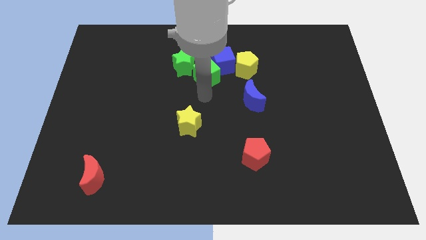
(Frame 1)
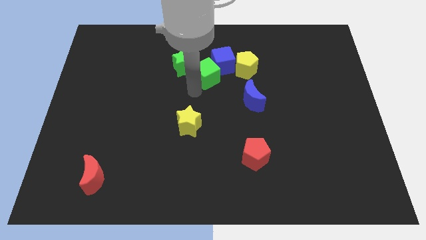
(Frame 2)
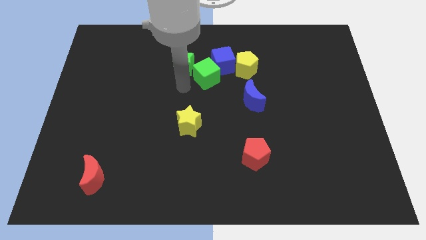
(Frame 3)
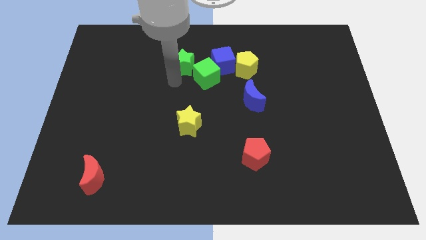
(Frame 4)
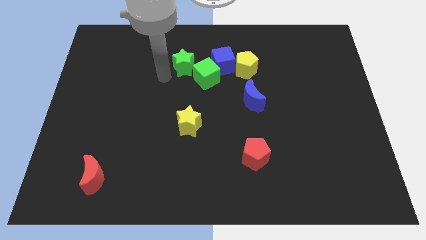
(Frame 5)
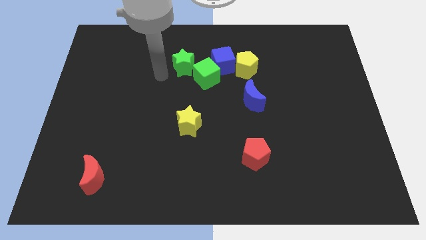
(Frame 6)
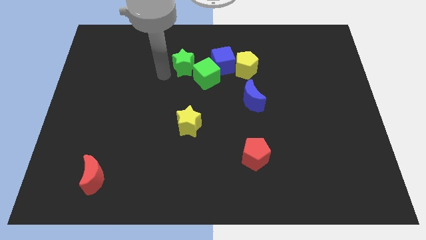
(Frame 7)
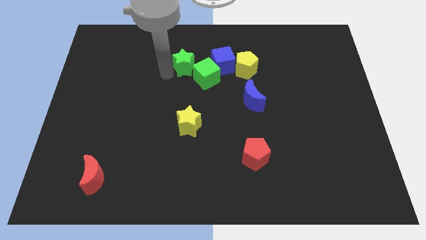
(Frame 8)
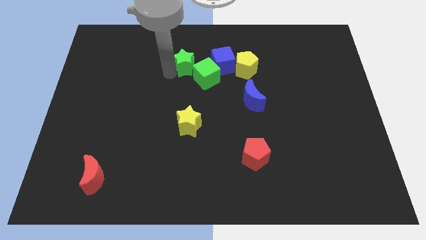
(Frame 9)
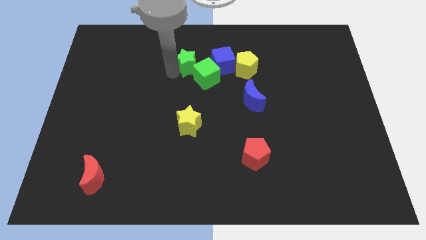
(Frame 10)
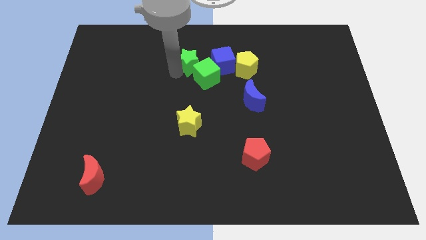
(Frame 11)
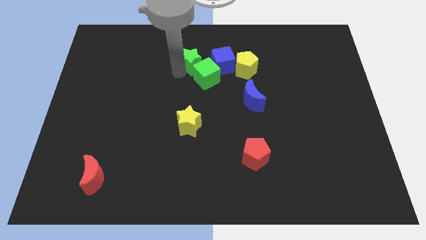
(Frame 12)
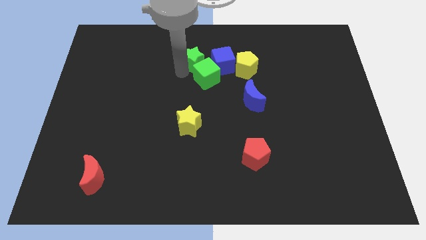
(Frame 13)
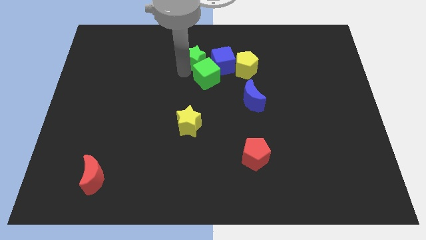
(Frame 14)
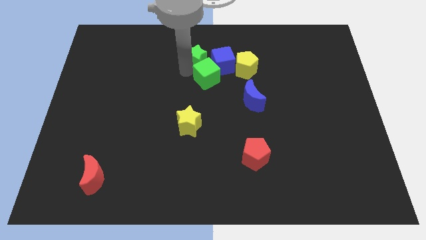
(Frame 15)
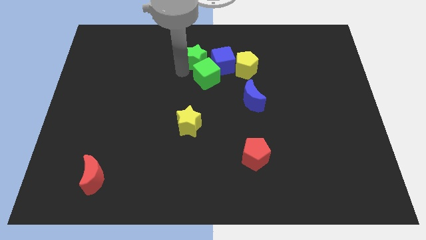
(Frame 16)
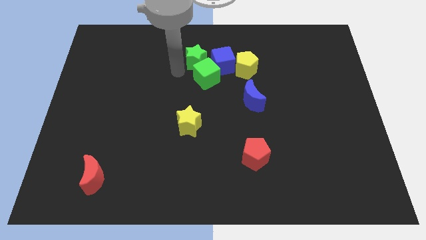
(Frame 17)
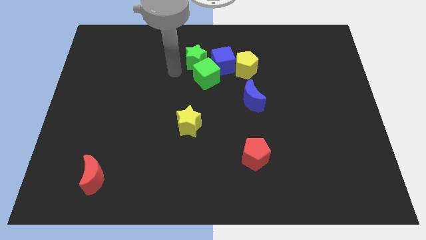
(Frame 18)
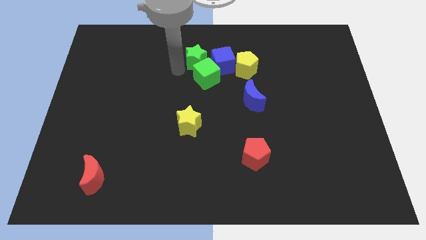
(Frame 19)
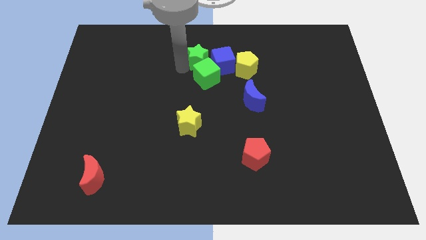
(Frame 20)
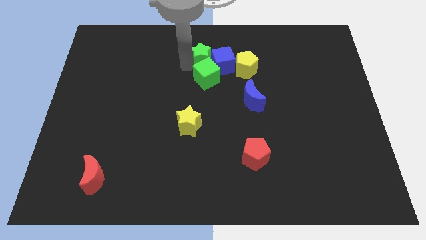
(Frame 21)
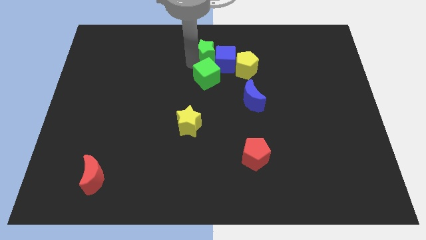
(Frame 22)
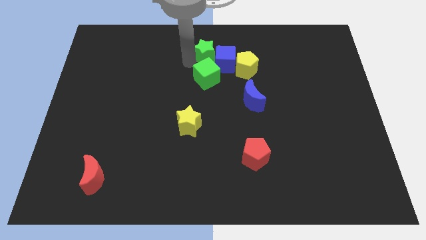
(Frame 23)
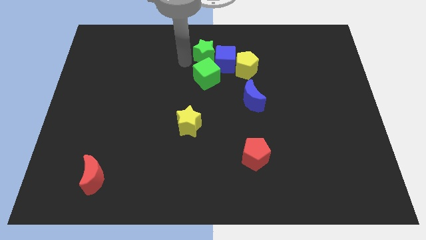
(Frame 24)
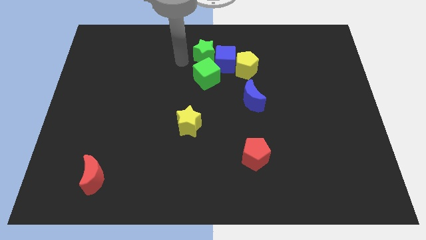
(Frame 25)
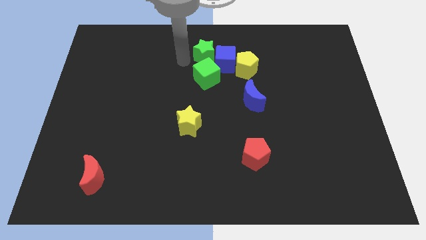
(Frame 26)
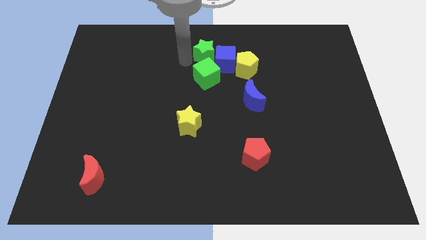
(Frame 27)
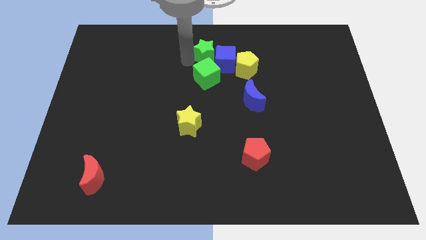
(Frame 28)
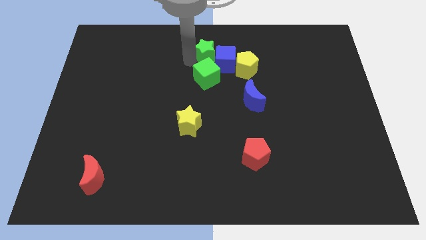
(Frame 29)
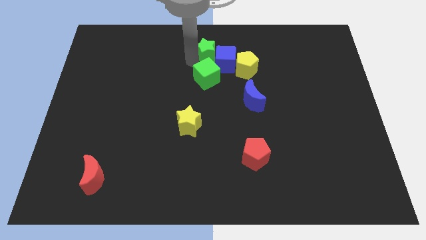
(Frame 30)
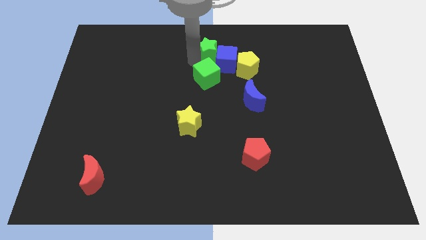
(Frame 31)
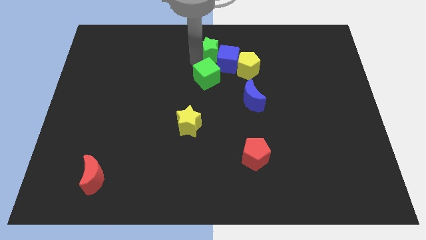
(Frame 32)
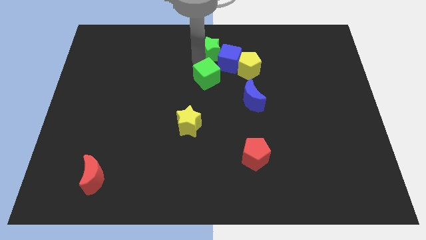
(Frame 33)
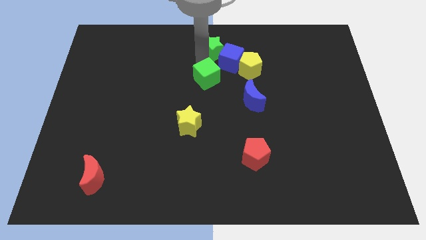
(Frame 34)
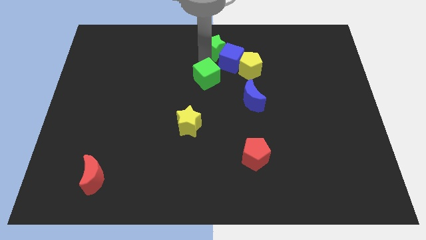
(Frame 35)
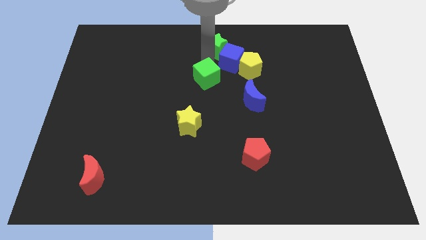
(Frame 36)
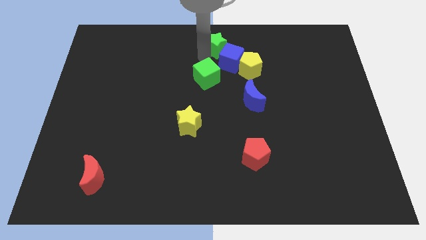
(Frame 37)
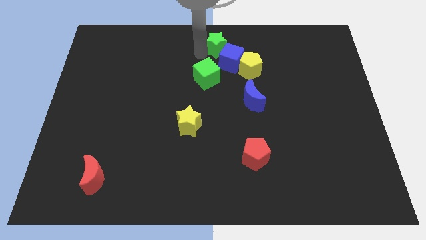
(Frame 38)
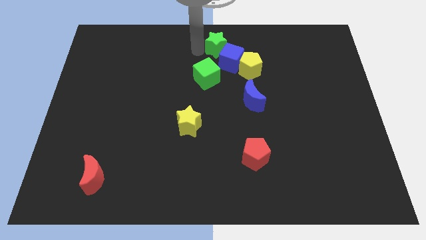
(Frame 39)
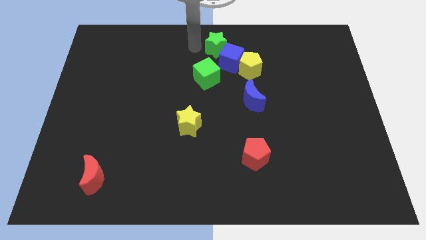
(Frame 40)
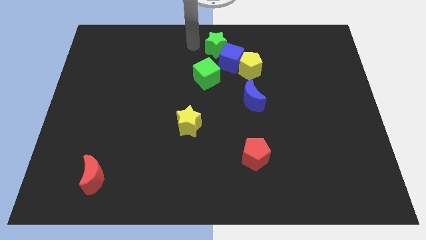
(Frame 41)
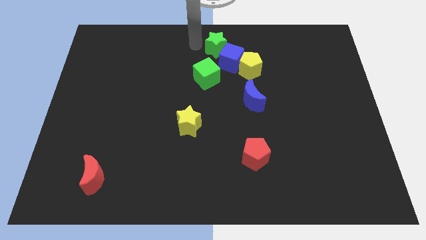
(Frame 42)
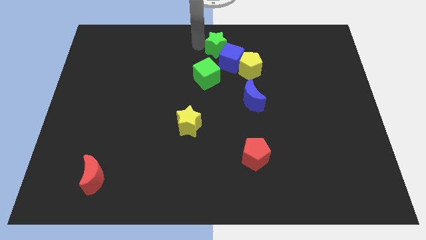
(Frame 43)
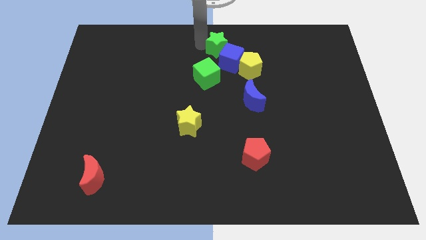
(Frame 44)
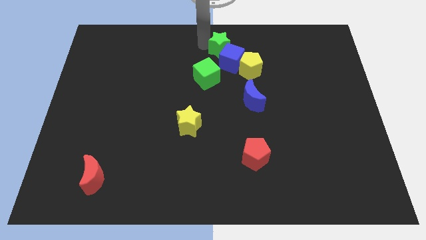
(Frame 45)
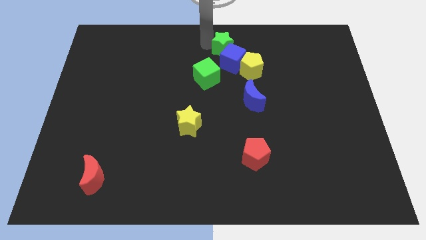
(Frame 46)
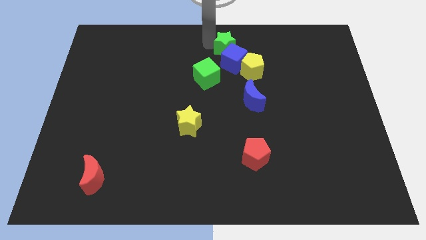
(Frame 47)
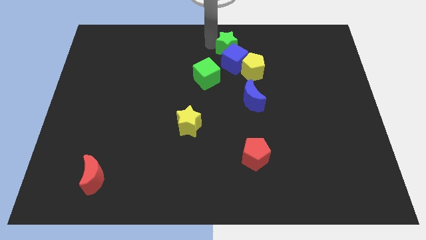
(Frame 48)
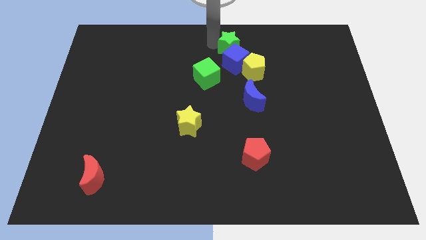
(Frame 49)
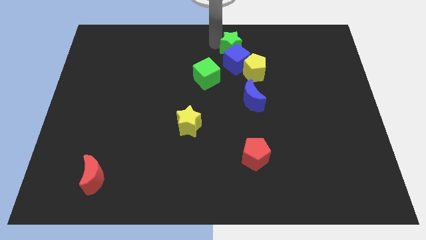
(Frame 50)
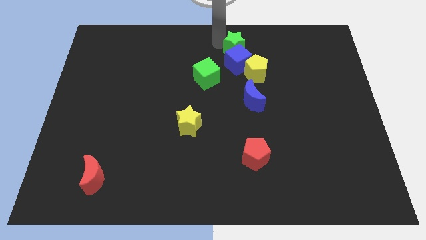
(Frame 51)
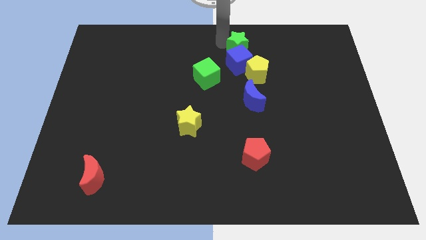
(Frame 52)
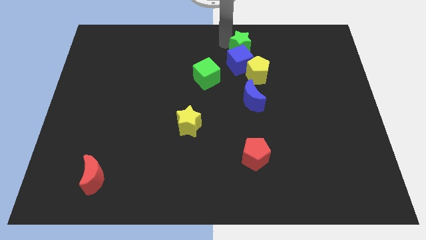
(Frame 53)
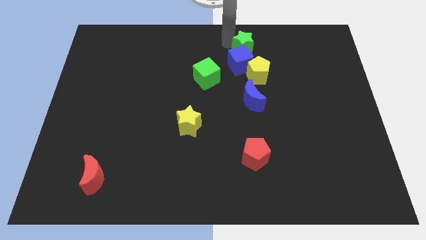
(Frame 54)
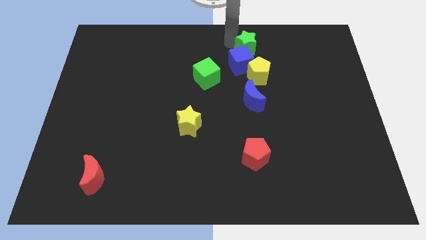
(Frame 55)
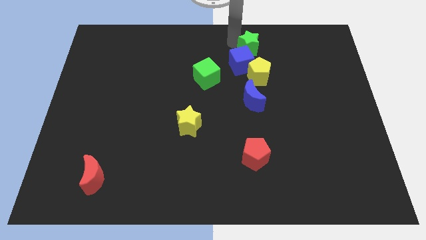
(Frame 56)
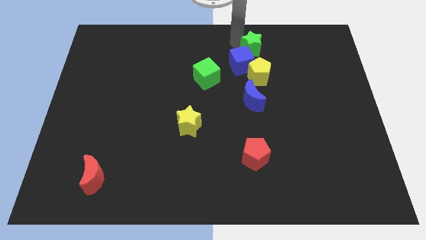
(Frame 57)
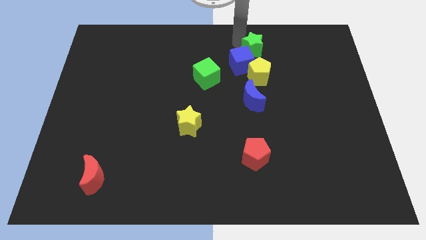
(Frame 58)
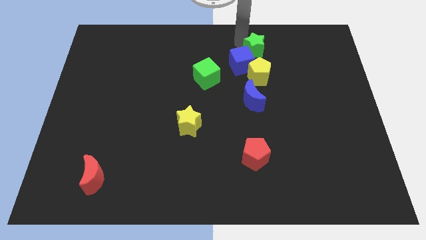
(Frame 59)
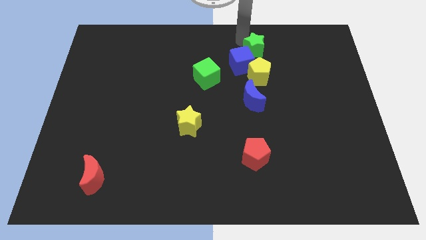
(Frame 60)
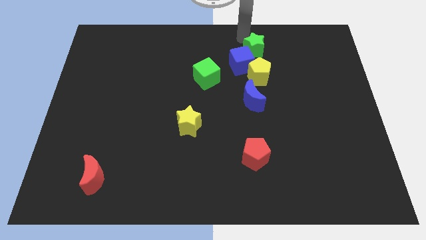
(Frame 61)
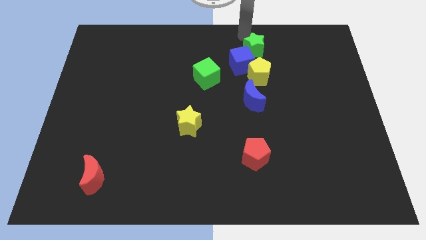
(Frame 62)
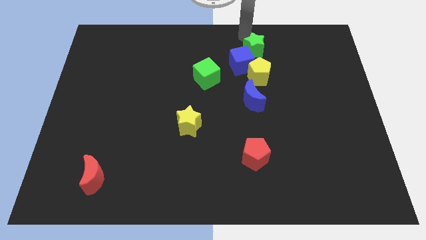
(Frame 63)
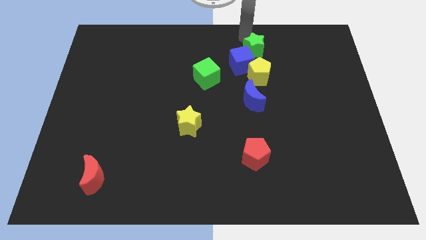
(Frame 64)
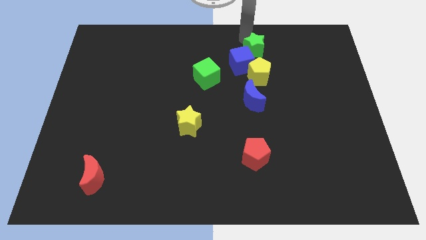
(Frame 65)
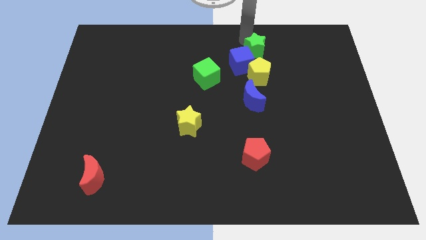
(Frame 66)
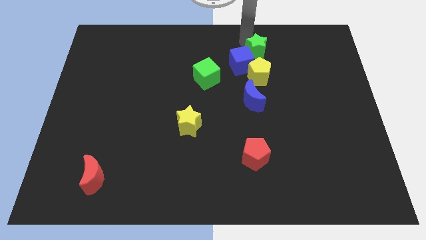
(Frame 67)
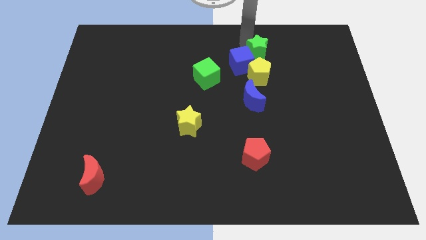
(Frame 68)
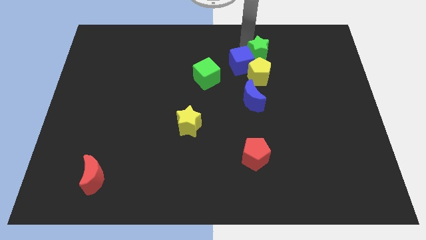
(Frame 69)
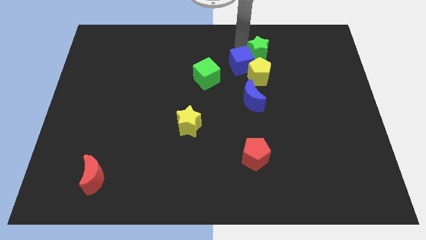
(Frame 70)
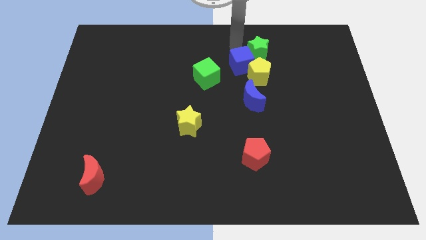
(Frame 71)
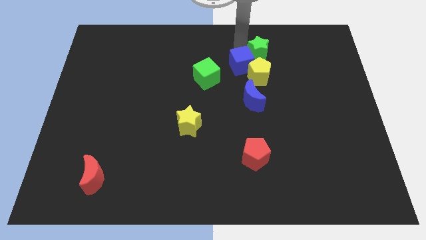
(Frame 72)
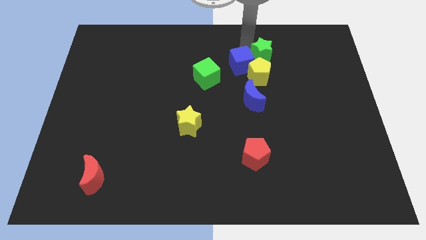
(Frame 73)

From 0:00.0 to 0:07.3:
slide the green star right

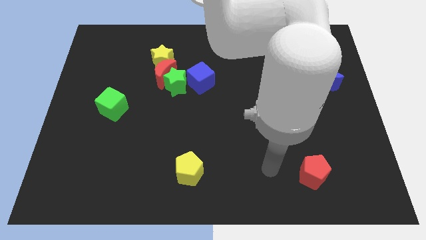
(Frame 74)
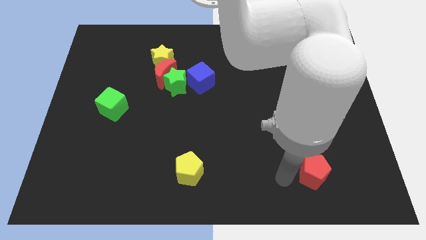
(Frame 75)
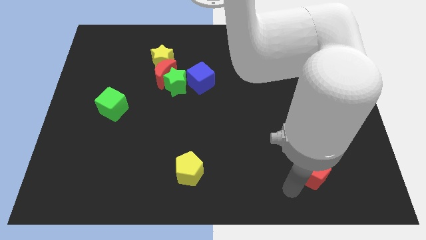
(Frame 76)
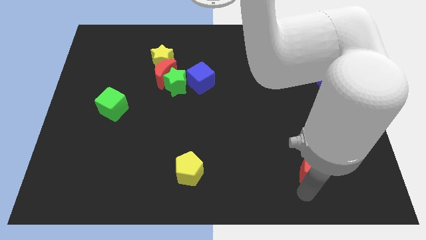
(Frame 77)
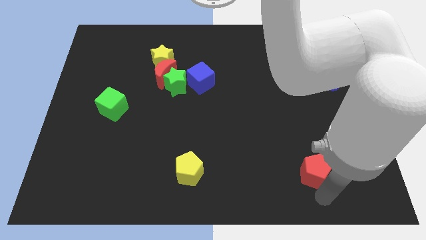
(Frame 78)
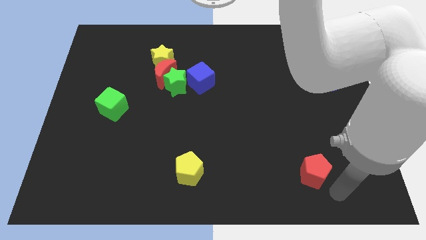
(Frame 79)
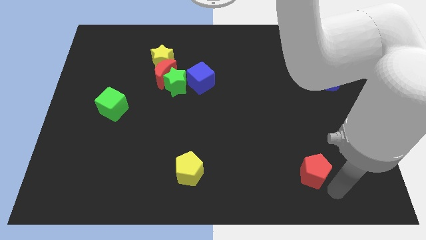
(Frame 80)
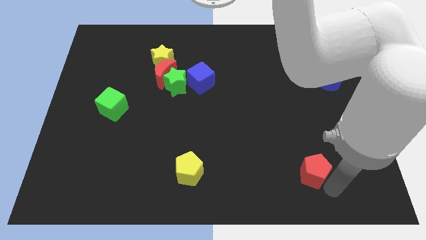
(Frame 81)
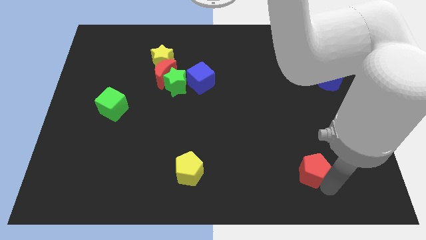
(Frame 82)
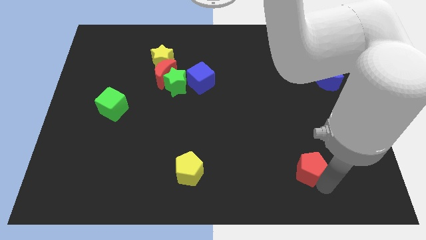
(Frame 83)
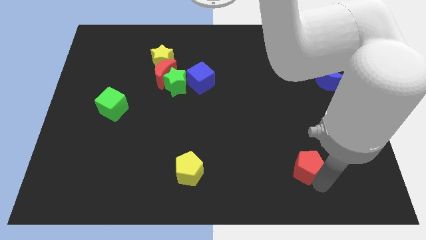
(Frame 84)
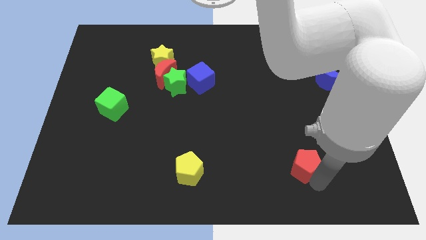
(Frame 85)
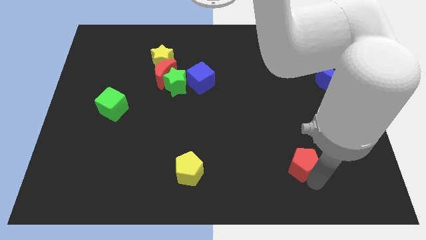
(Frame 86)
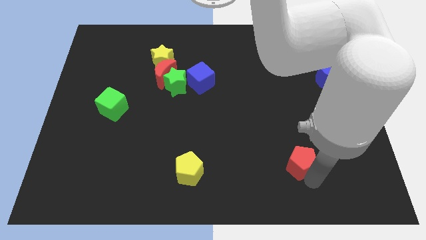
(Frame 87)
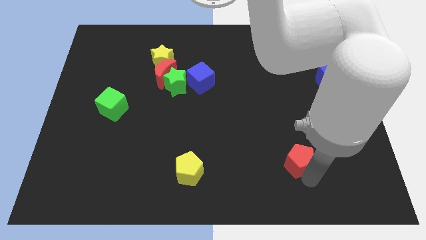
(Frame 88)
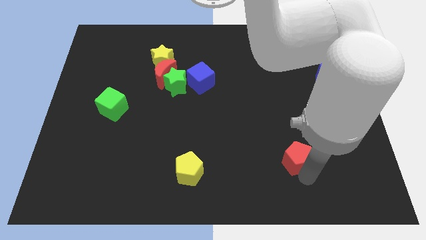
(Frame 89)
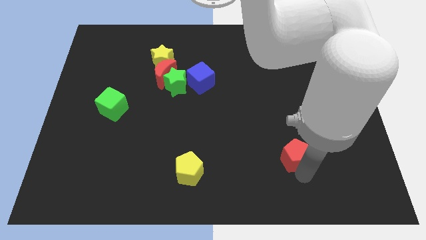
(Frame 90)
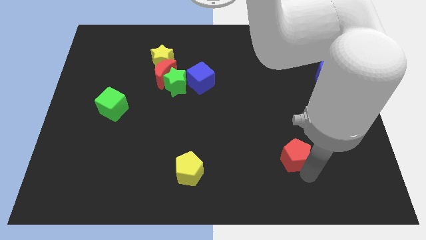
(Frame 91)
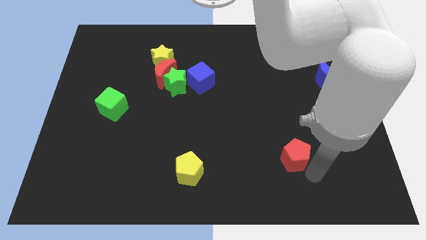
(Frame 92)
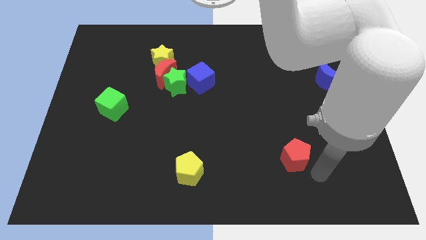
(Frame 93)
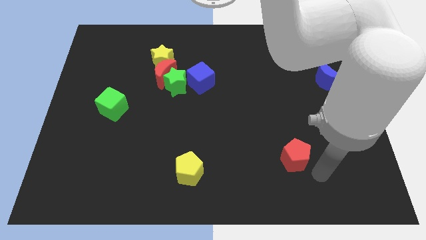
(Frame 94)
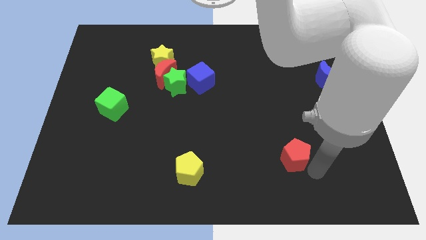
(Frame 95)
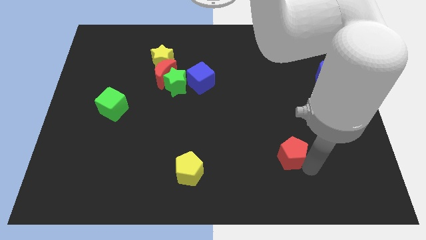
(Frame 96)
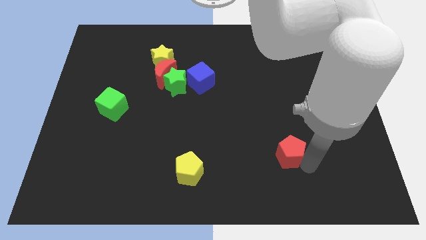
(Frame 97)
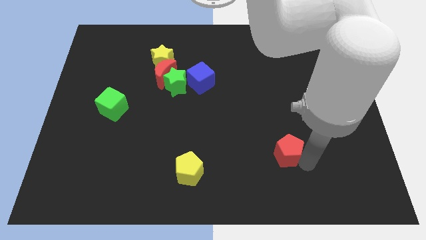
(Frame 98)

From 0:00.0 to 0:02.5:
slide the red pentagon up and to the left diagonally somewhat
